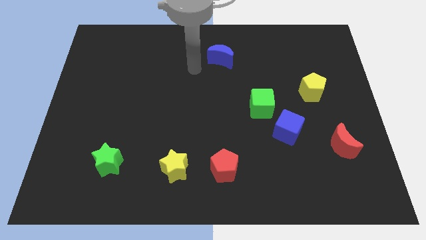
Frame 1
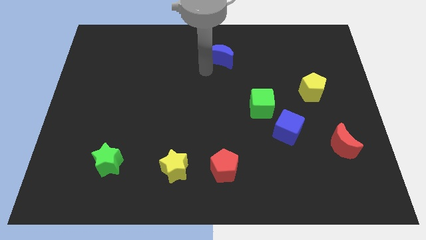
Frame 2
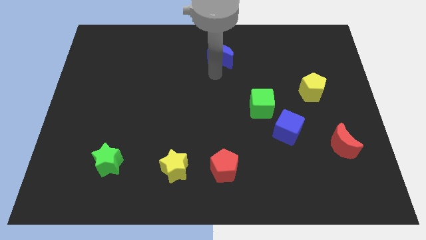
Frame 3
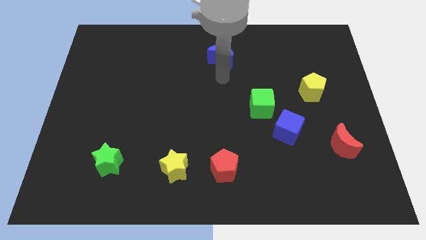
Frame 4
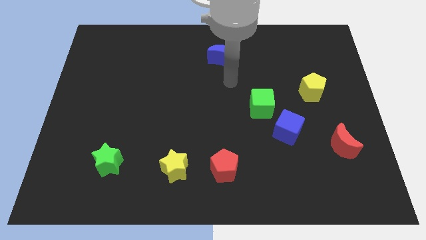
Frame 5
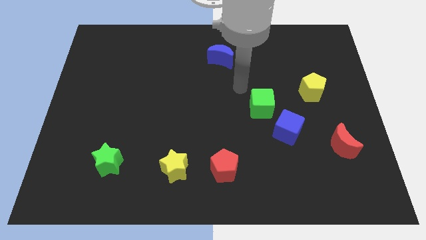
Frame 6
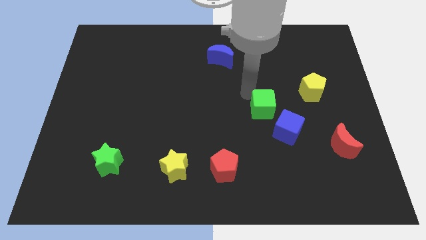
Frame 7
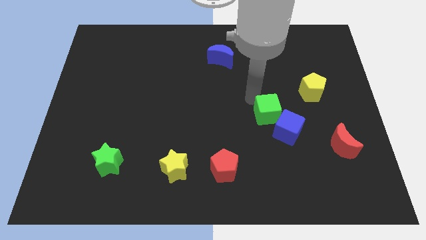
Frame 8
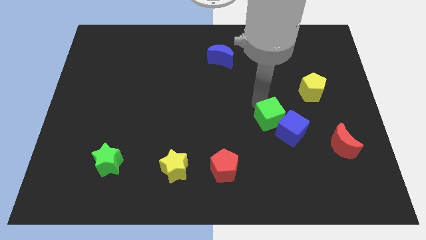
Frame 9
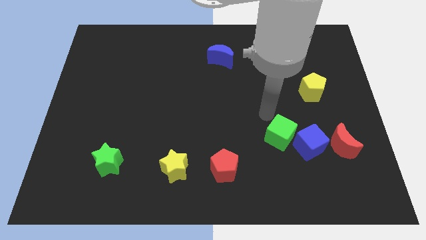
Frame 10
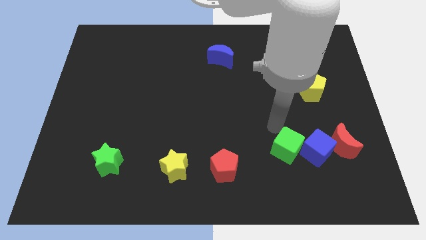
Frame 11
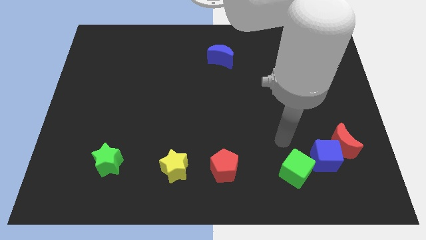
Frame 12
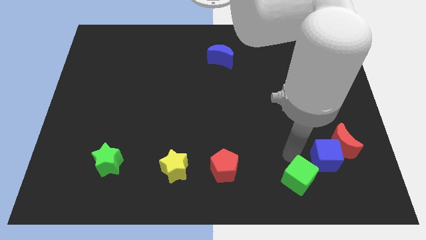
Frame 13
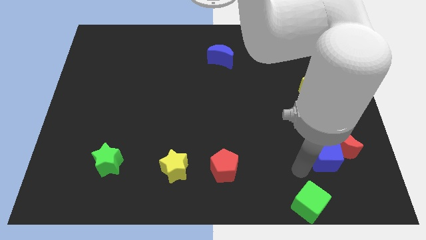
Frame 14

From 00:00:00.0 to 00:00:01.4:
move the blue cube away from the green cube

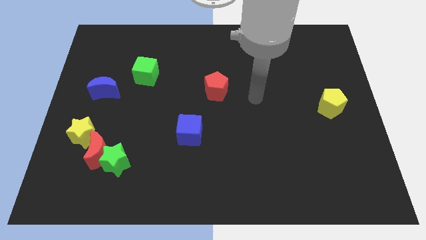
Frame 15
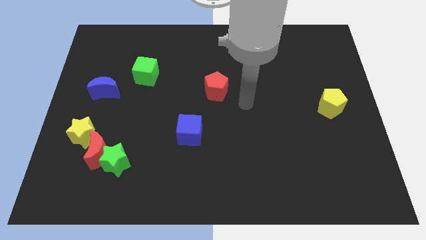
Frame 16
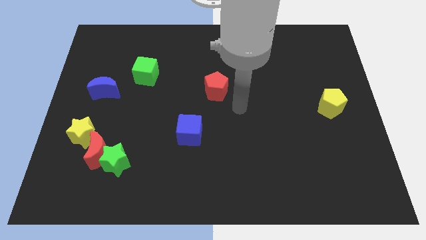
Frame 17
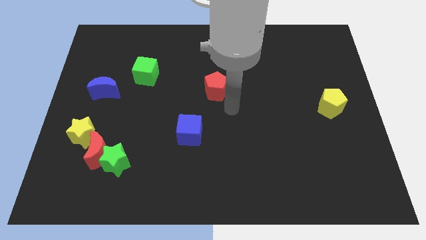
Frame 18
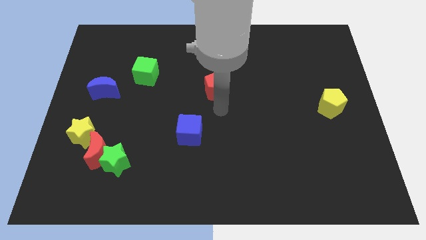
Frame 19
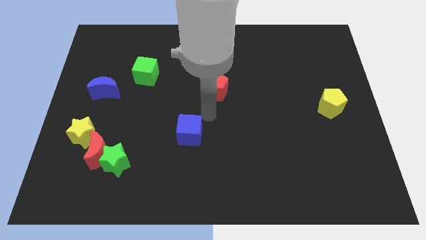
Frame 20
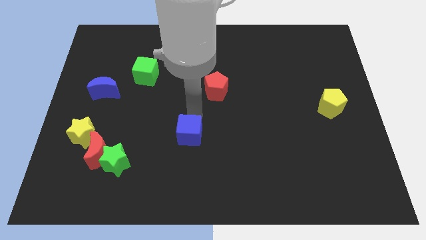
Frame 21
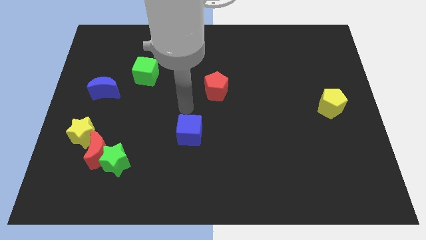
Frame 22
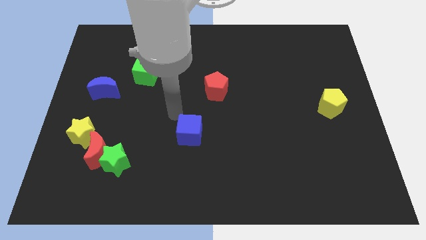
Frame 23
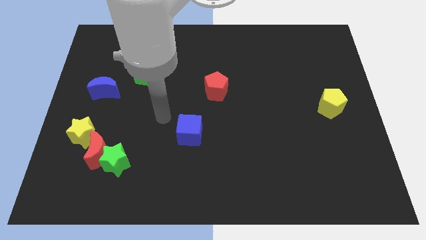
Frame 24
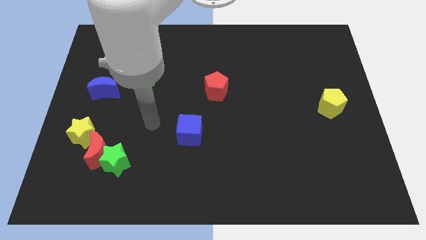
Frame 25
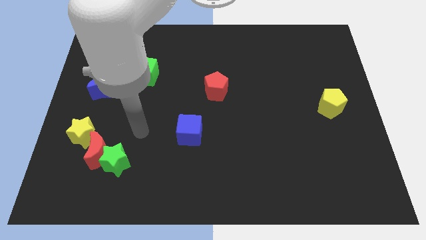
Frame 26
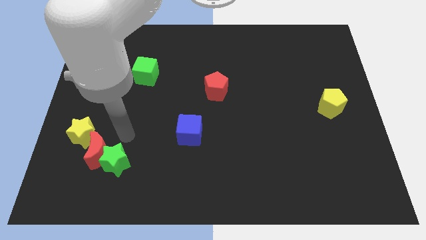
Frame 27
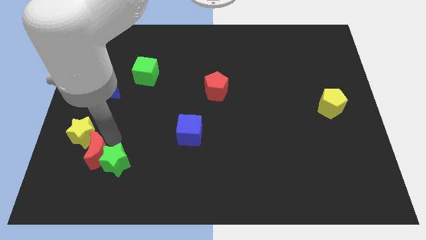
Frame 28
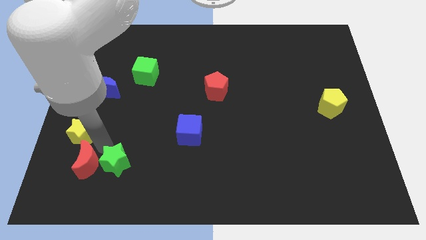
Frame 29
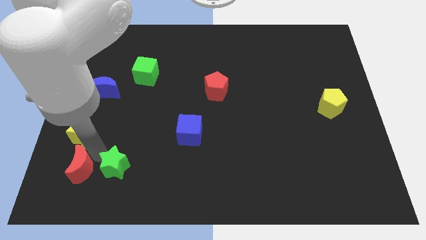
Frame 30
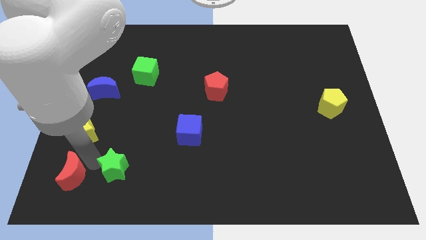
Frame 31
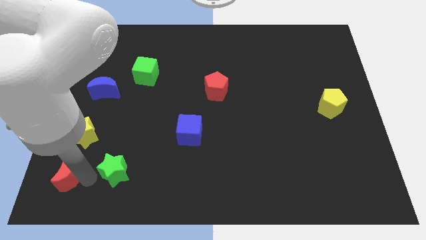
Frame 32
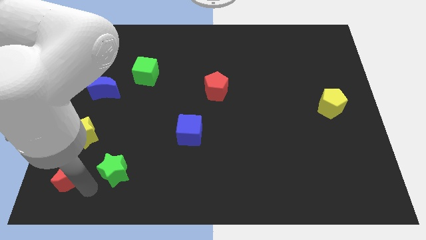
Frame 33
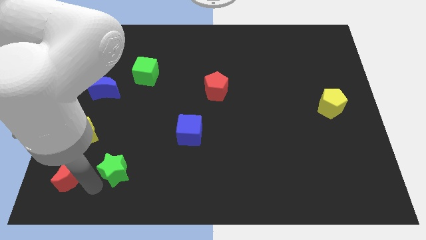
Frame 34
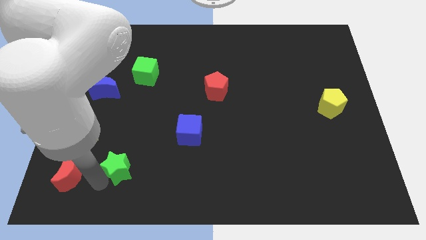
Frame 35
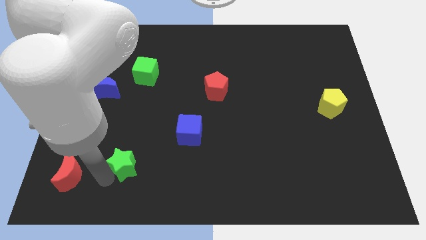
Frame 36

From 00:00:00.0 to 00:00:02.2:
separate the green star from the red moon

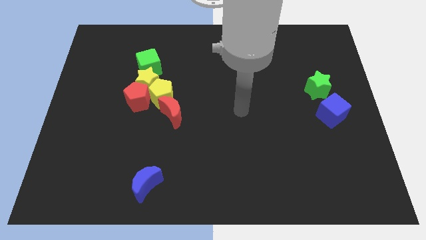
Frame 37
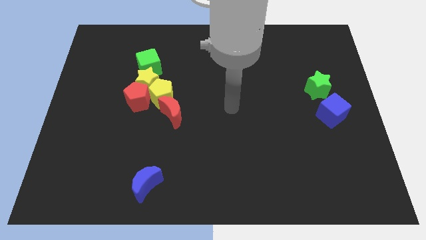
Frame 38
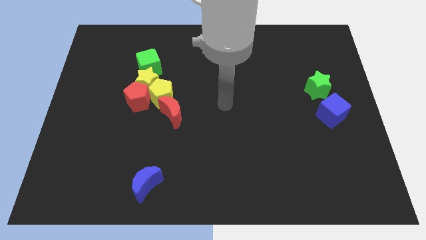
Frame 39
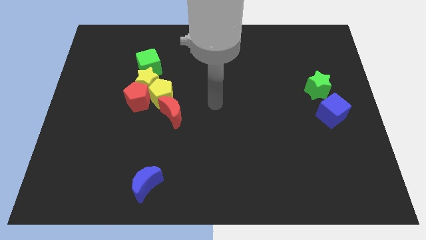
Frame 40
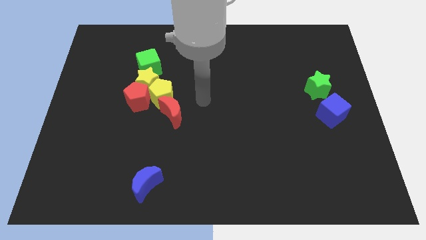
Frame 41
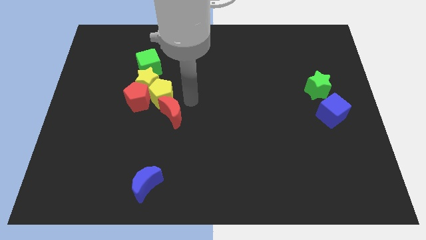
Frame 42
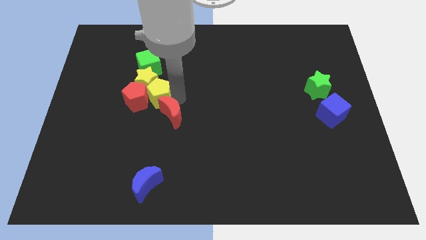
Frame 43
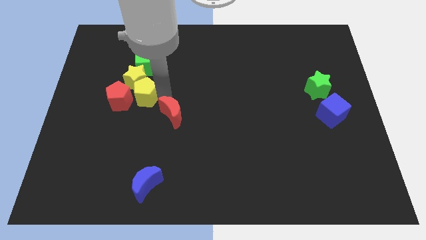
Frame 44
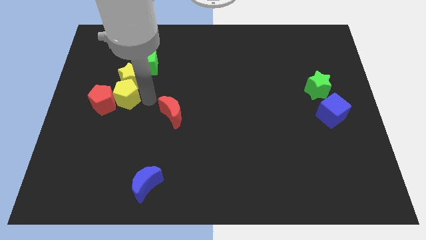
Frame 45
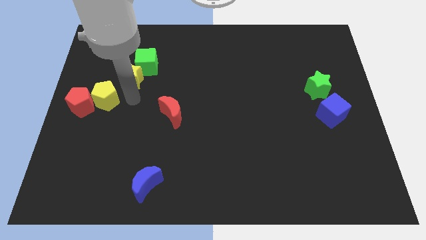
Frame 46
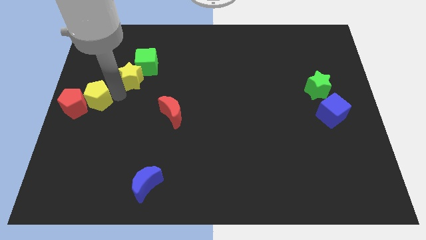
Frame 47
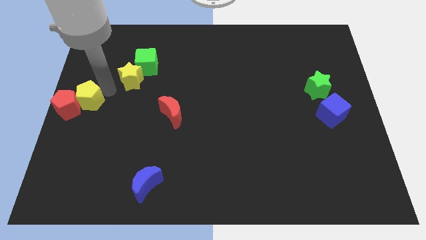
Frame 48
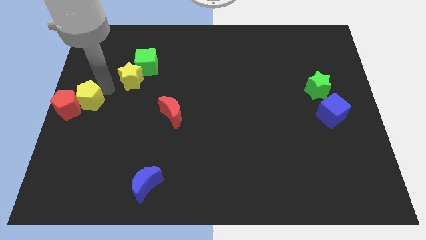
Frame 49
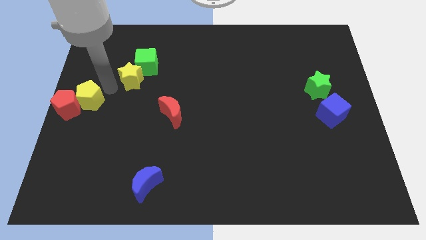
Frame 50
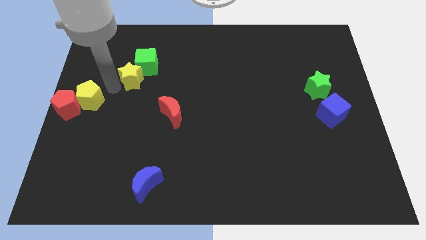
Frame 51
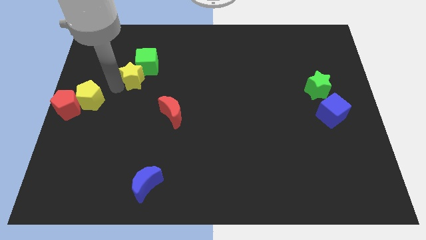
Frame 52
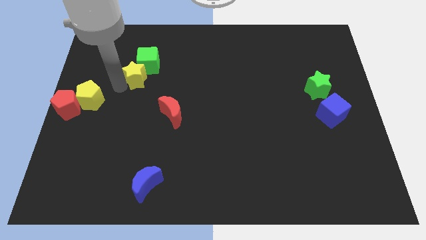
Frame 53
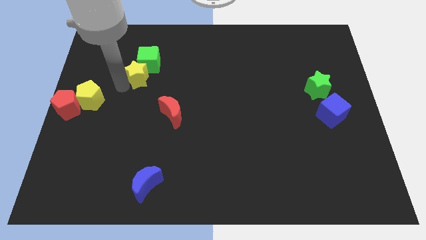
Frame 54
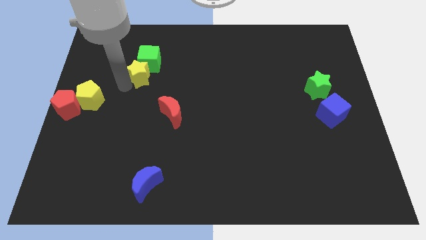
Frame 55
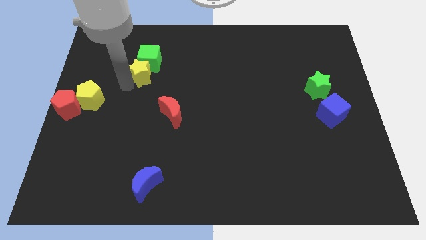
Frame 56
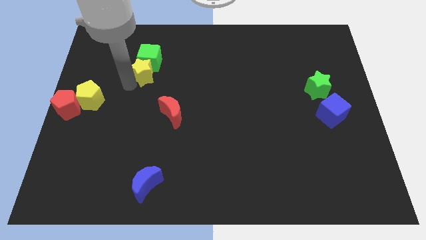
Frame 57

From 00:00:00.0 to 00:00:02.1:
pull the yellow star apart from the red pentagon, yellow pentagon, and green cube

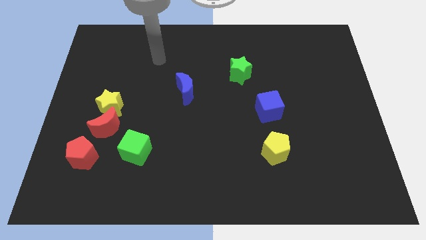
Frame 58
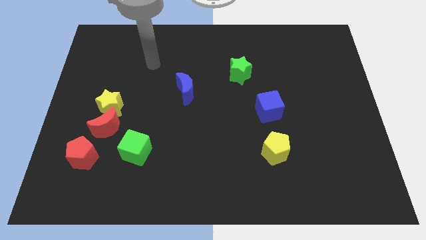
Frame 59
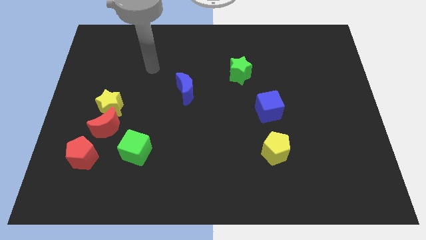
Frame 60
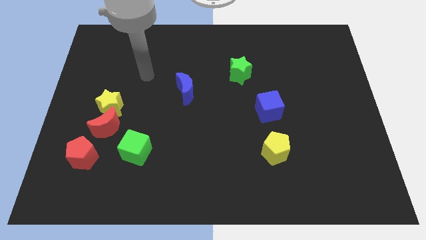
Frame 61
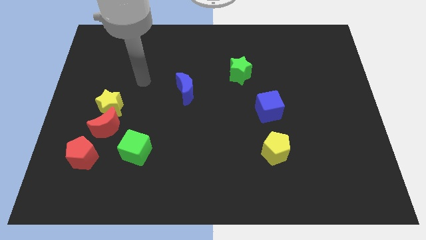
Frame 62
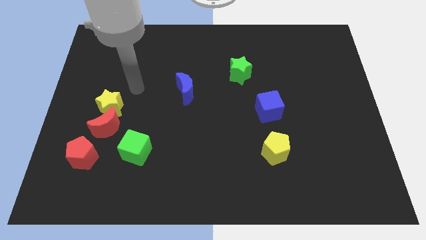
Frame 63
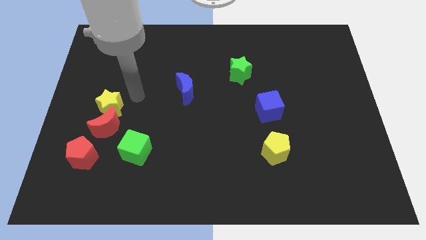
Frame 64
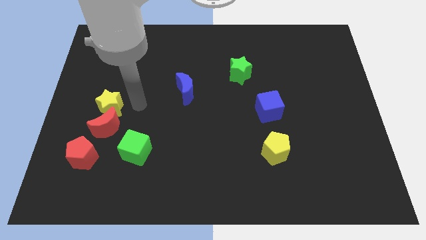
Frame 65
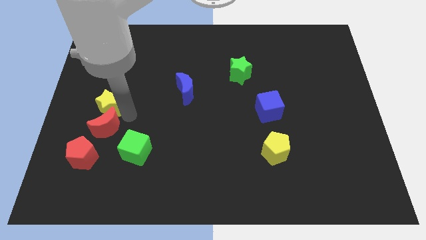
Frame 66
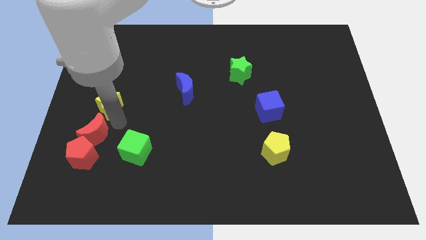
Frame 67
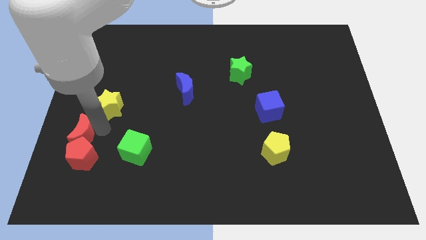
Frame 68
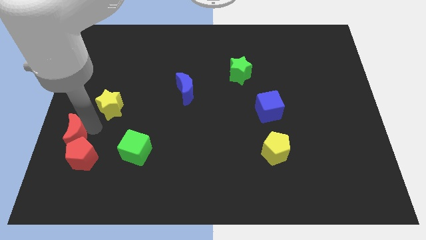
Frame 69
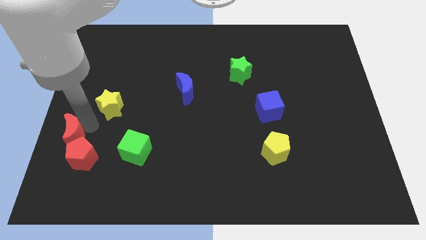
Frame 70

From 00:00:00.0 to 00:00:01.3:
separate the yellow star from the red moon

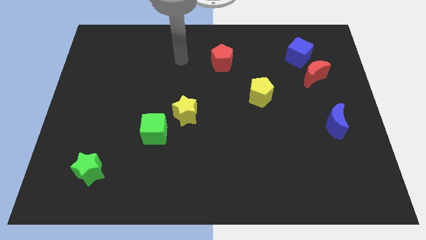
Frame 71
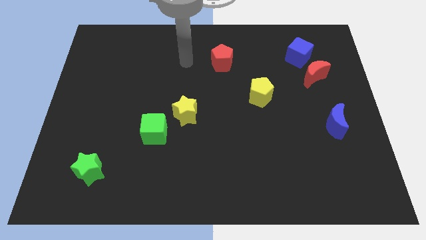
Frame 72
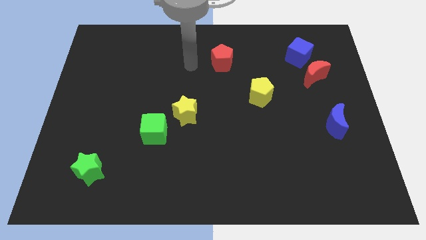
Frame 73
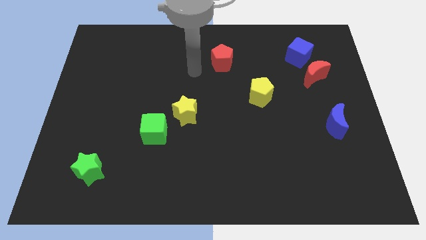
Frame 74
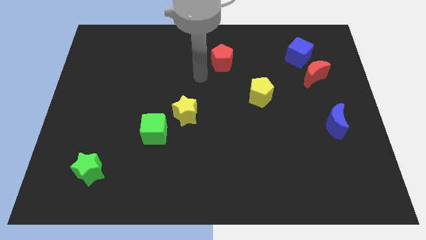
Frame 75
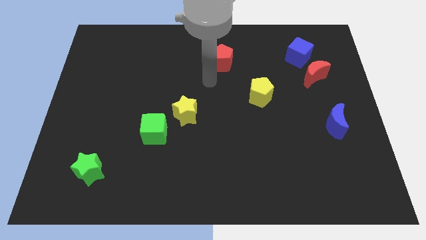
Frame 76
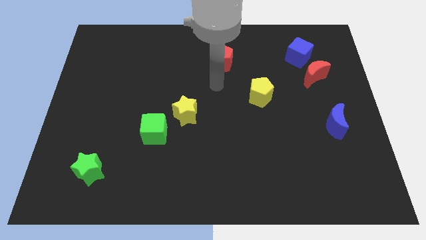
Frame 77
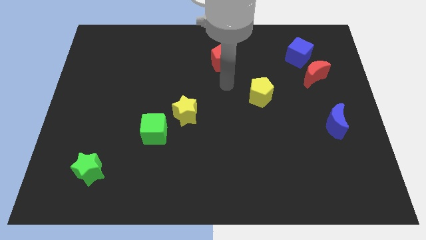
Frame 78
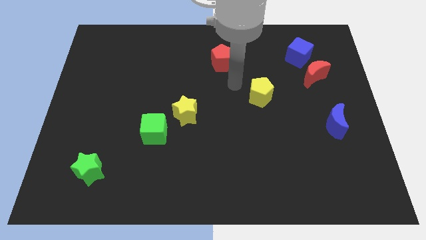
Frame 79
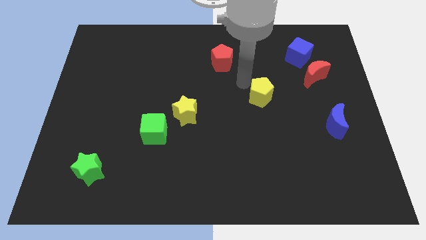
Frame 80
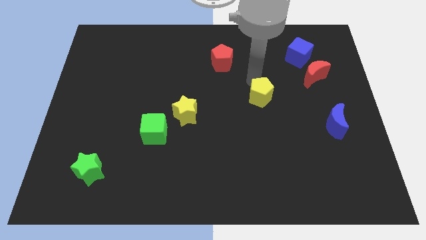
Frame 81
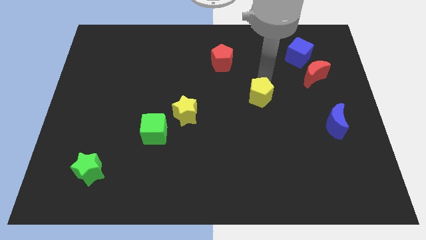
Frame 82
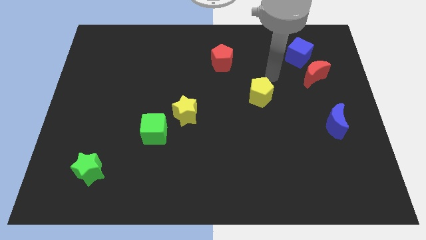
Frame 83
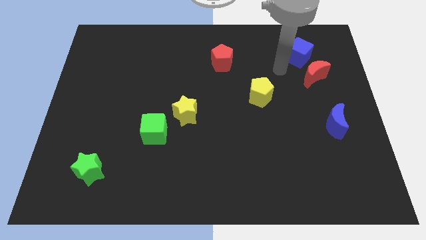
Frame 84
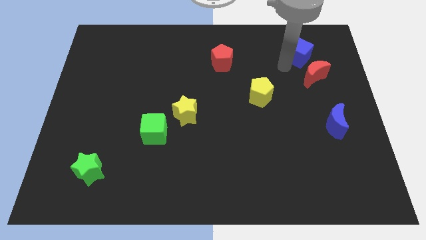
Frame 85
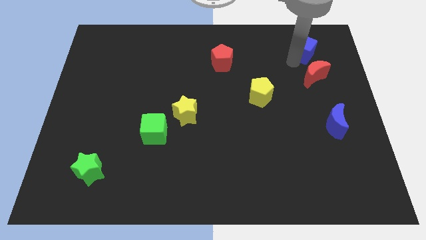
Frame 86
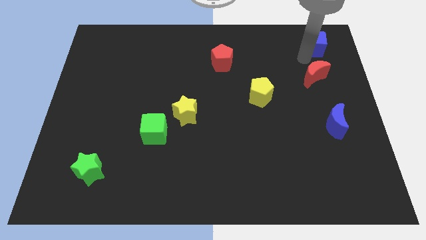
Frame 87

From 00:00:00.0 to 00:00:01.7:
pull the red moon apart from the blue cube

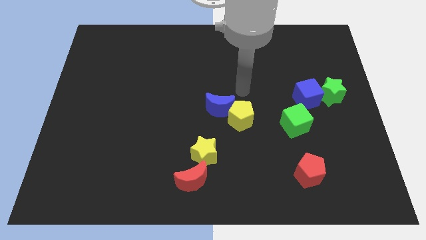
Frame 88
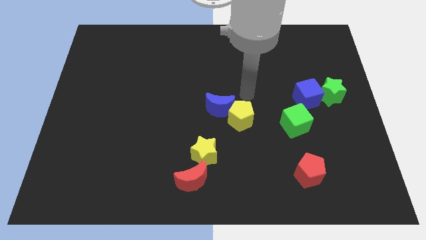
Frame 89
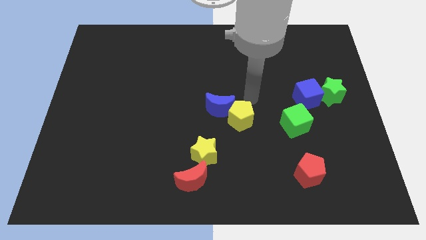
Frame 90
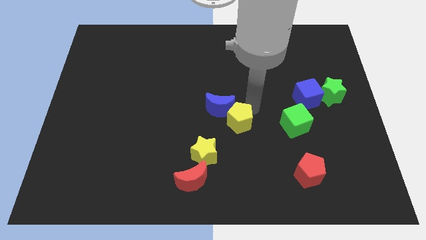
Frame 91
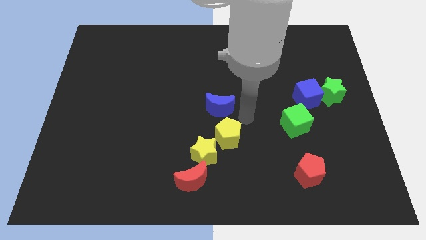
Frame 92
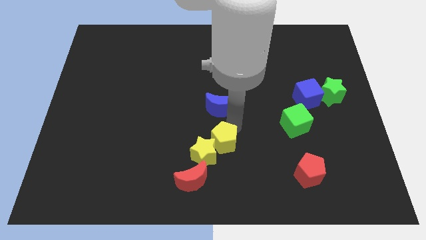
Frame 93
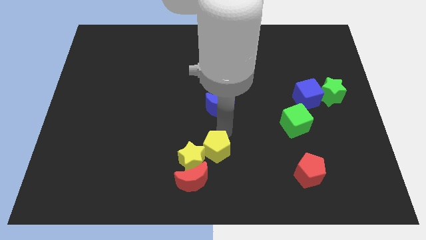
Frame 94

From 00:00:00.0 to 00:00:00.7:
move the blue moon away from the yellow pentagon
